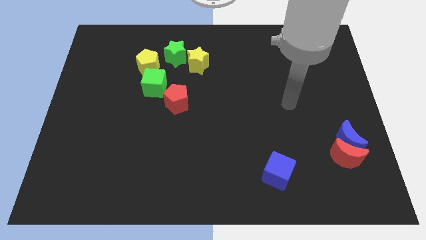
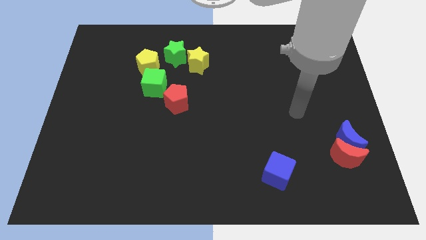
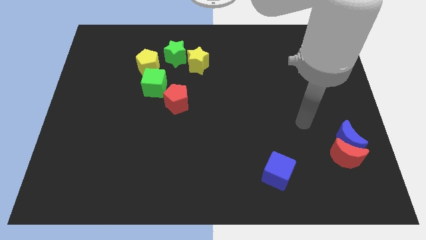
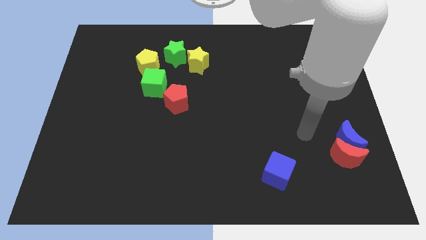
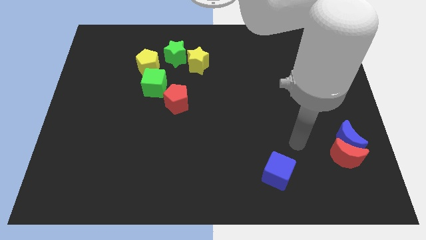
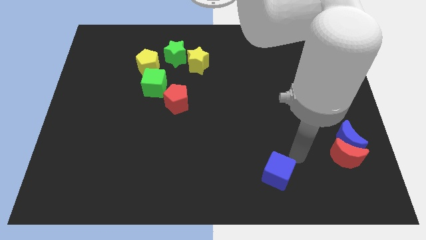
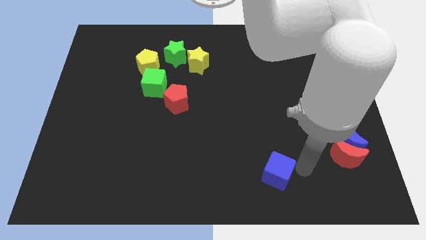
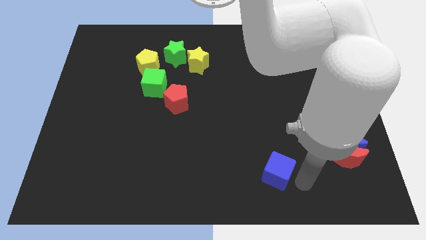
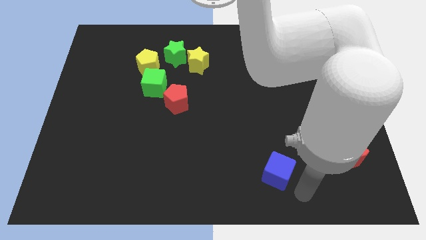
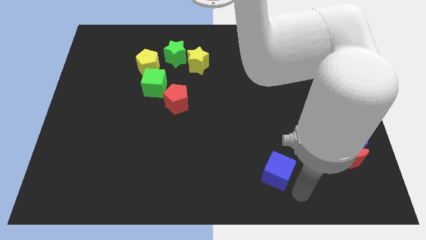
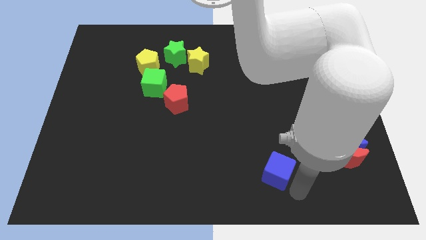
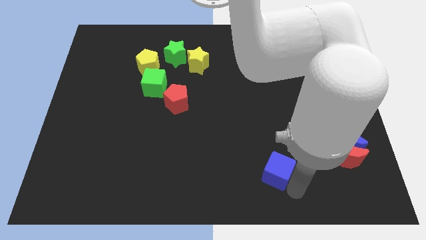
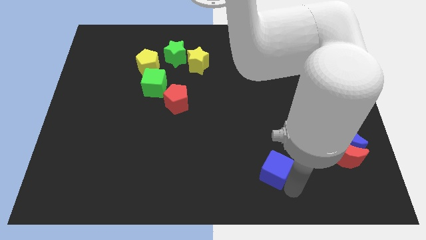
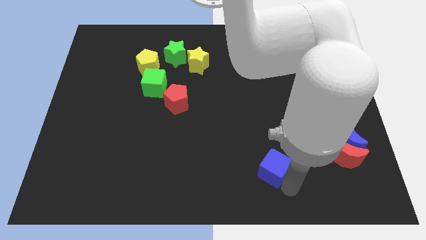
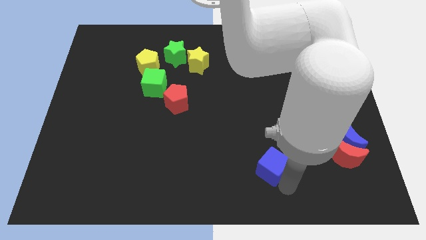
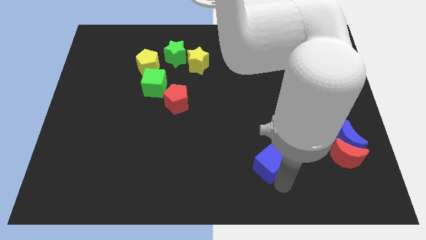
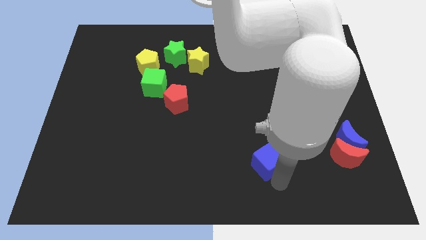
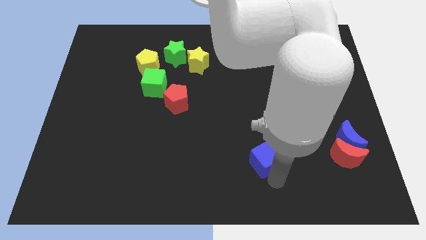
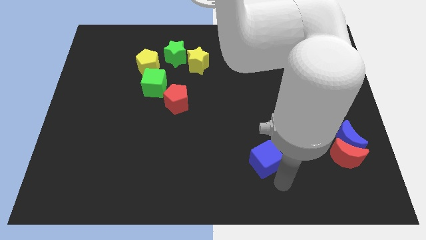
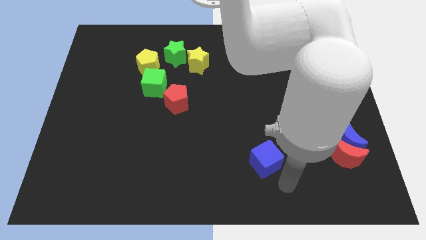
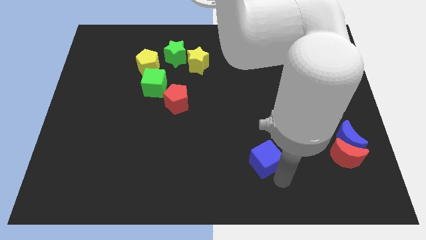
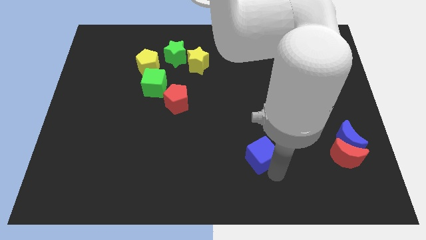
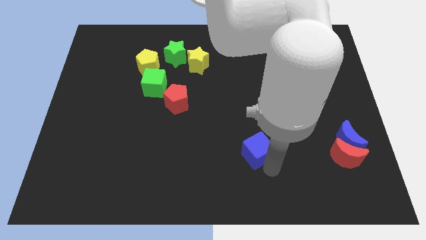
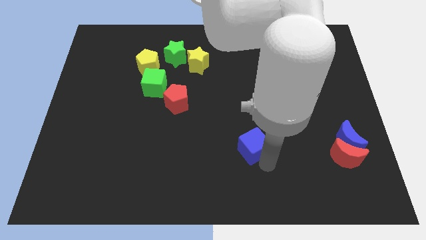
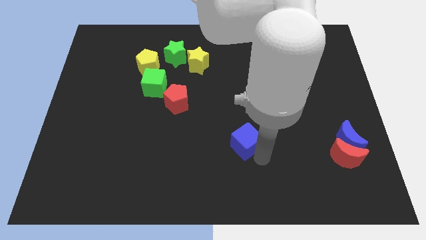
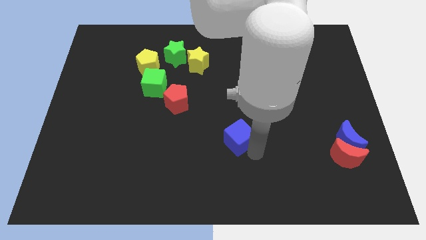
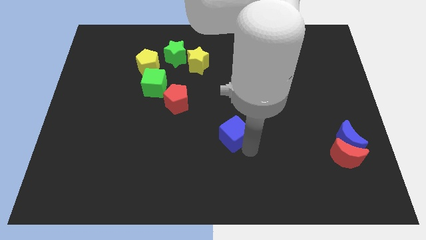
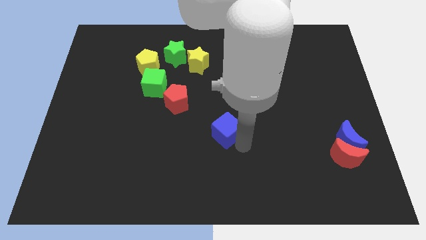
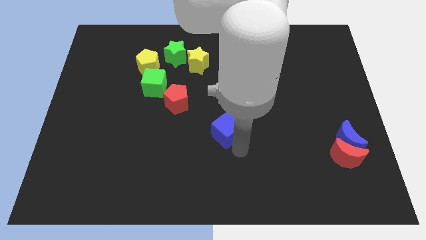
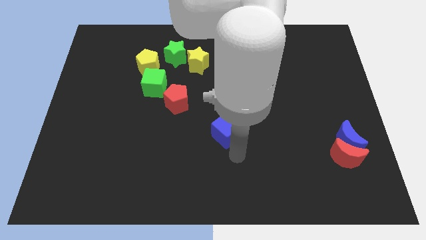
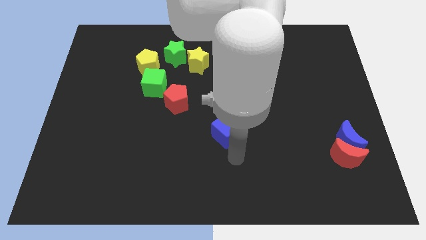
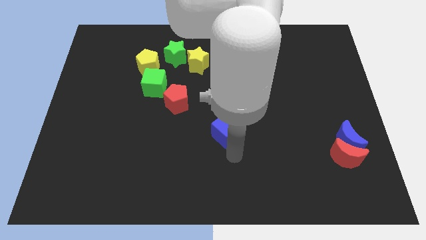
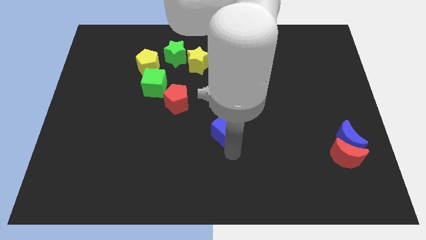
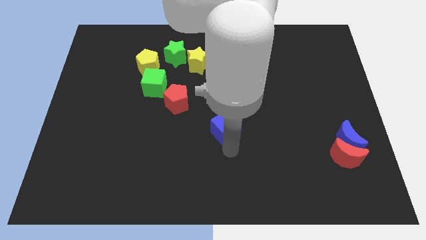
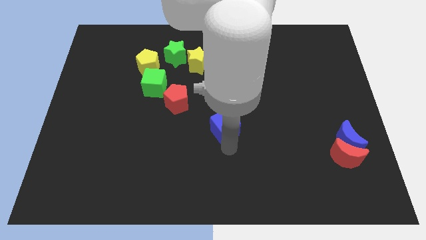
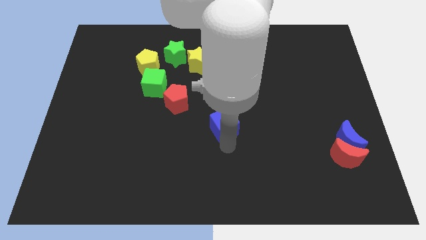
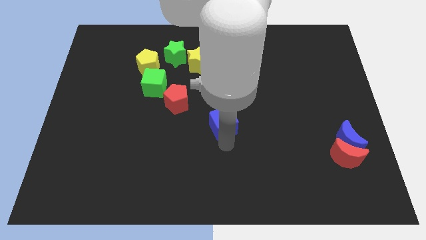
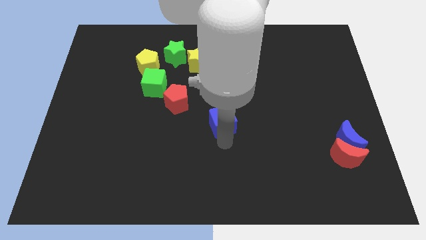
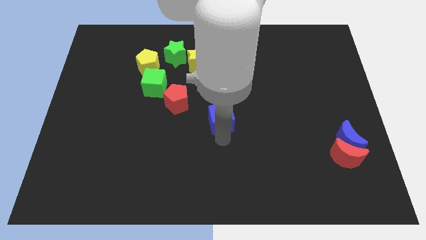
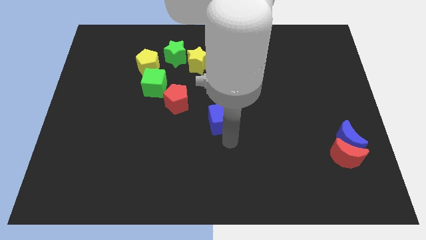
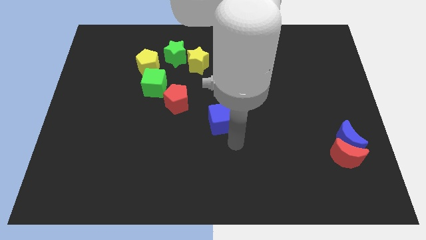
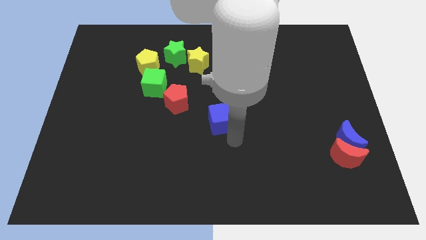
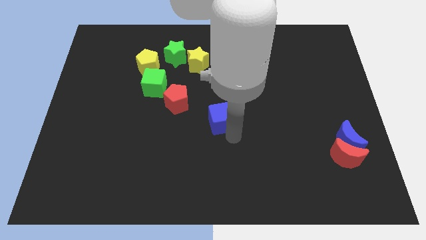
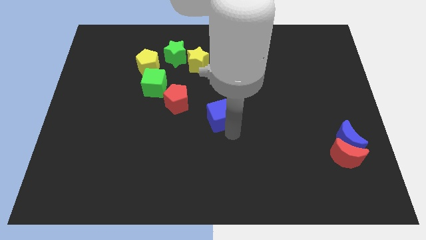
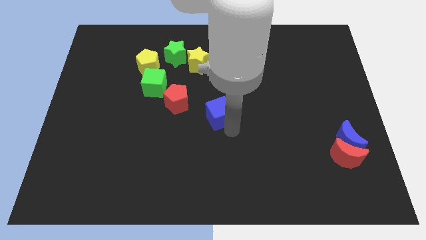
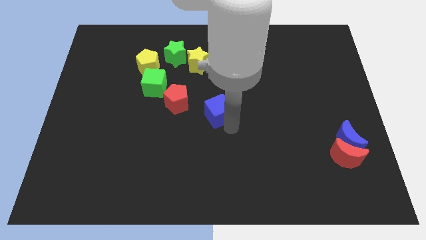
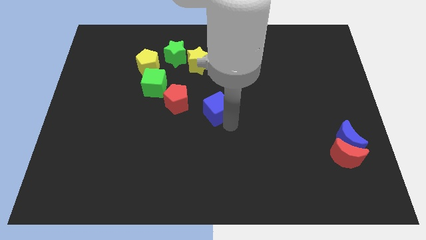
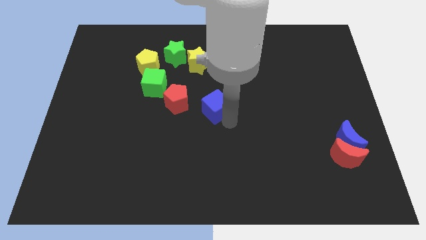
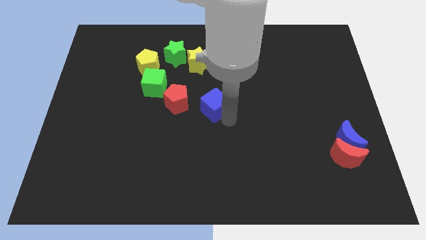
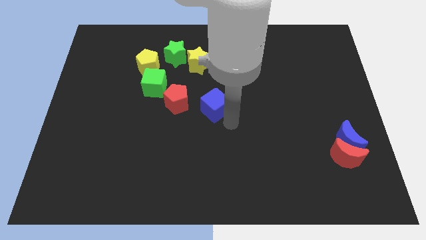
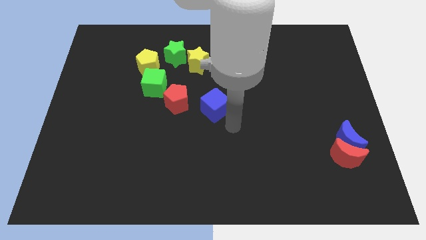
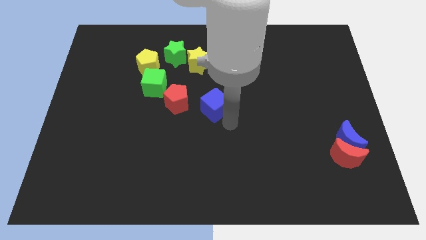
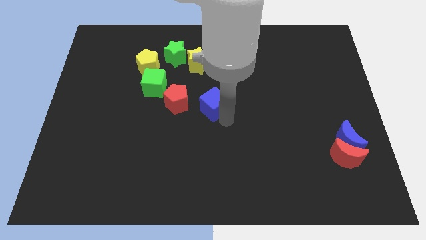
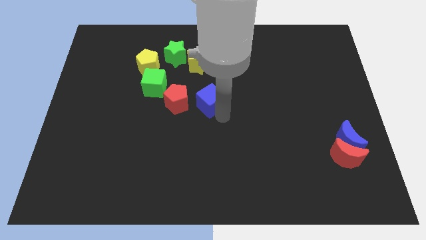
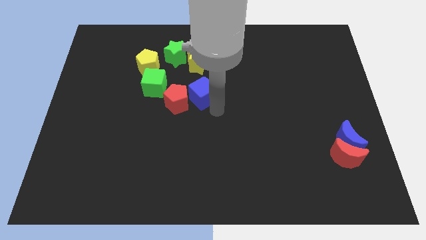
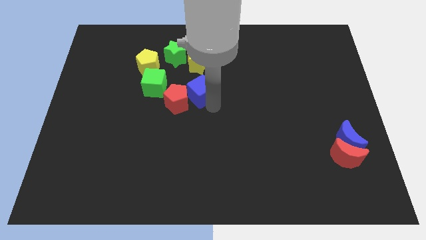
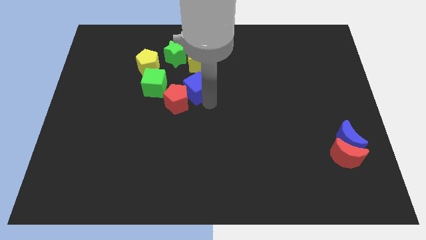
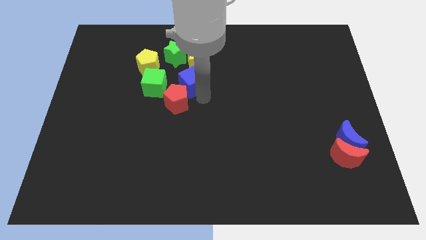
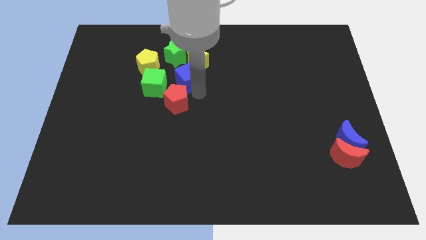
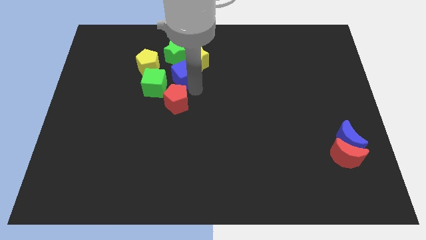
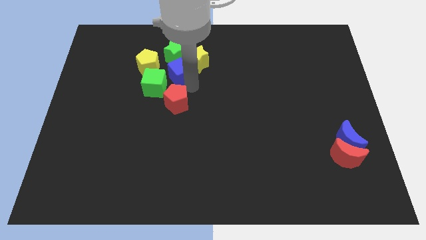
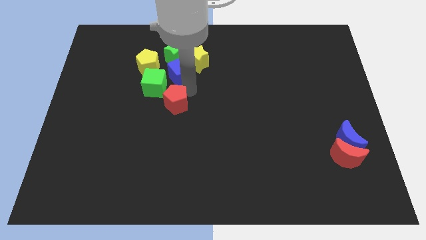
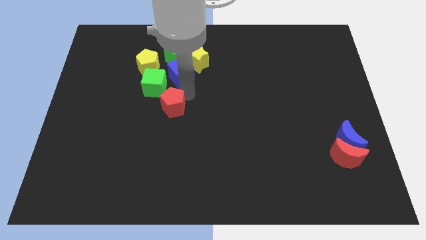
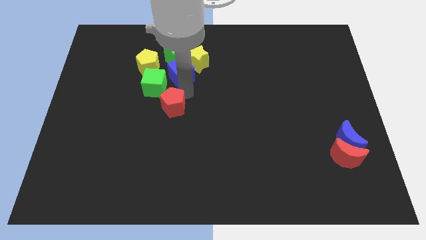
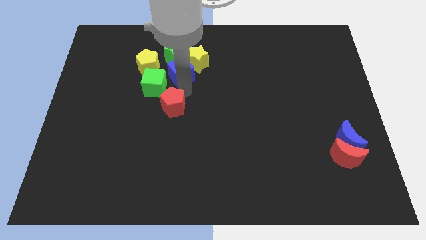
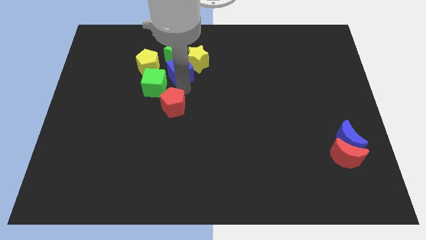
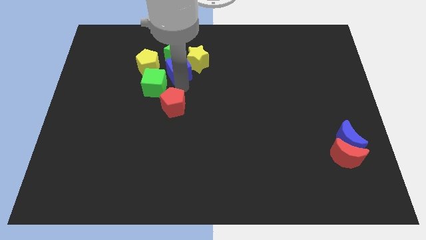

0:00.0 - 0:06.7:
push the blue cube next to the green star
